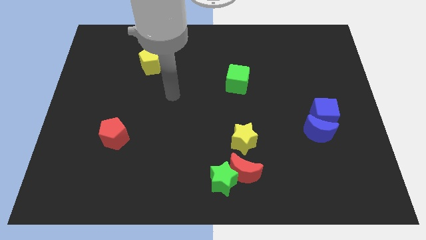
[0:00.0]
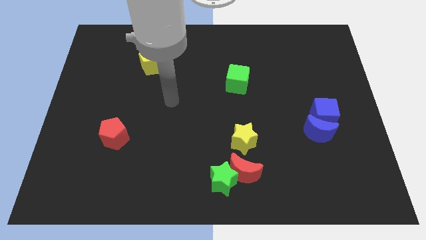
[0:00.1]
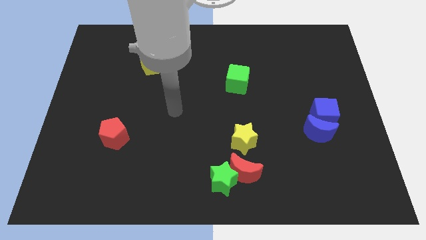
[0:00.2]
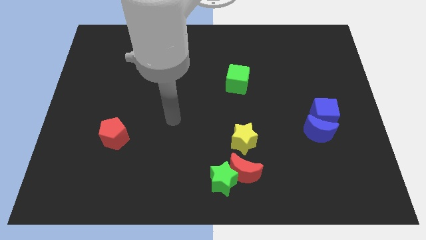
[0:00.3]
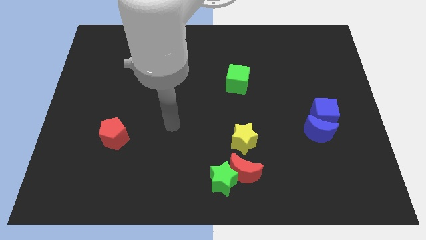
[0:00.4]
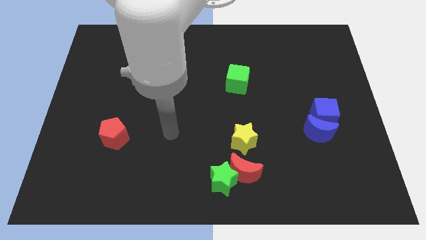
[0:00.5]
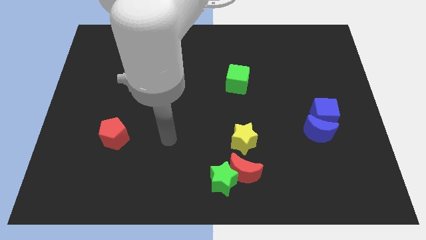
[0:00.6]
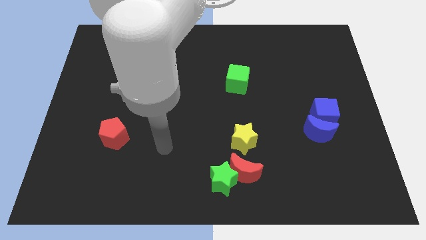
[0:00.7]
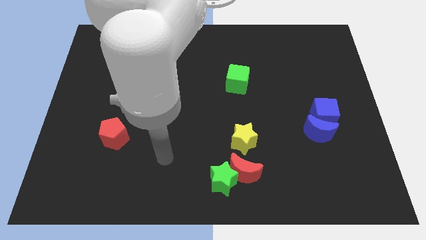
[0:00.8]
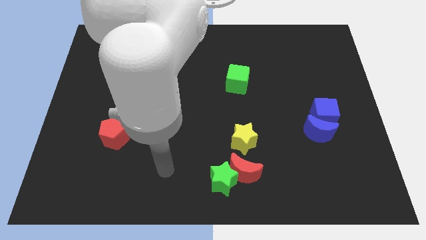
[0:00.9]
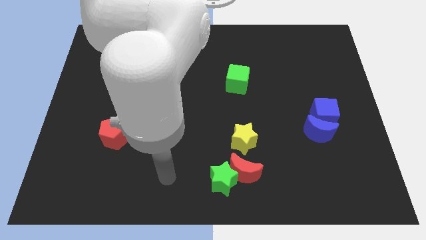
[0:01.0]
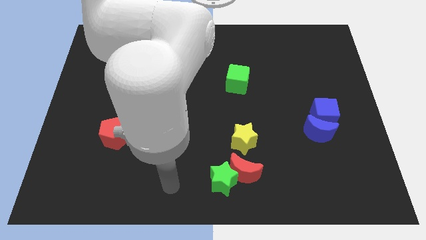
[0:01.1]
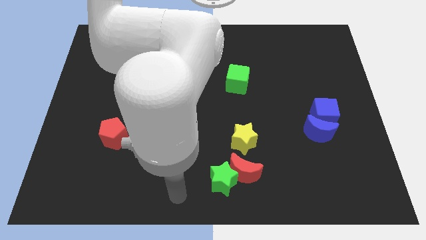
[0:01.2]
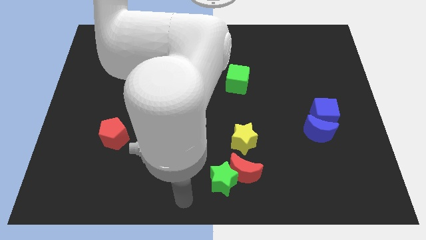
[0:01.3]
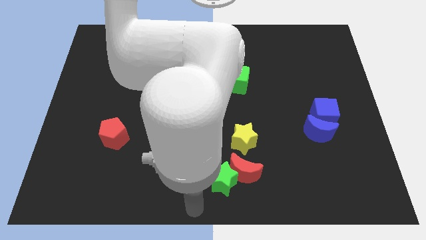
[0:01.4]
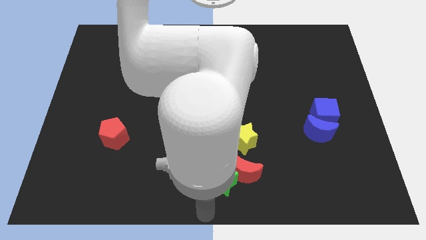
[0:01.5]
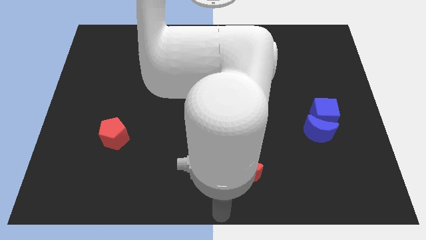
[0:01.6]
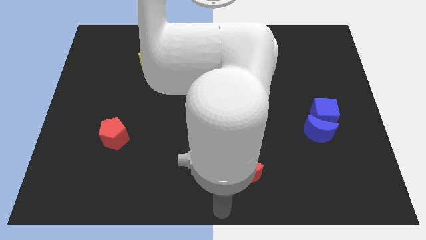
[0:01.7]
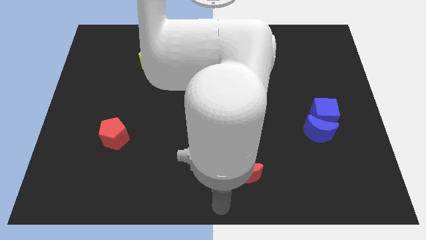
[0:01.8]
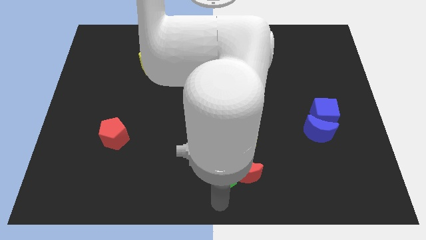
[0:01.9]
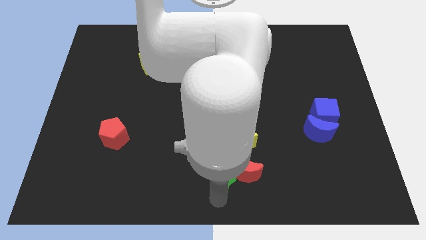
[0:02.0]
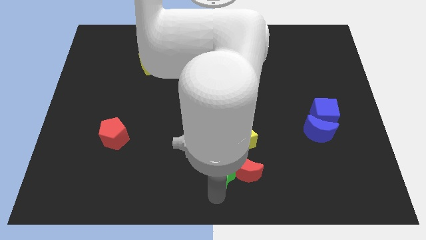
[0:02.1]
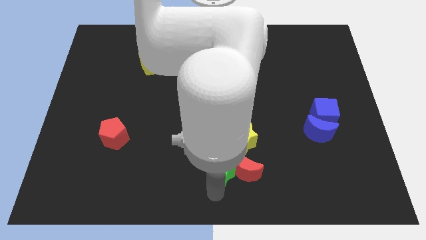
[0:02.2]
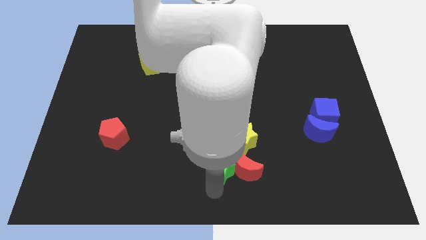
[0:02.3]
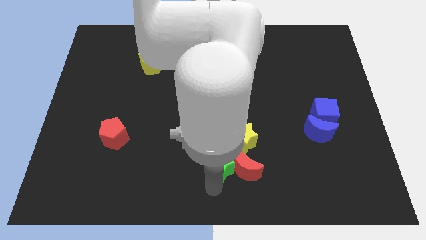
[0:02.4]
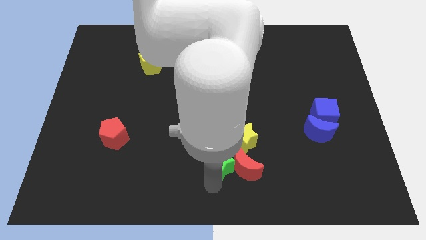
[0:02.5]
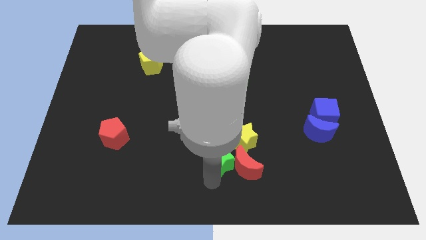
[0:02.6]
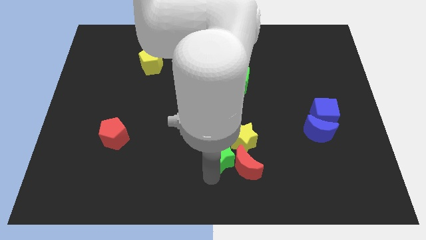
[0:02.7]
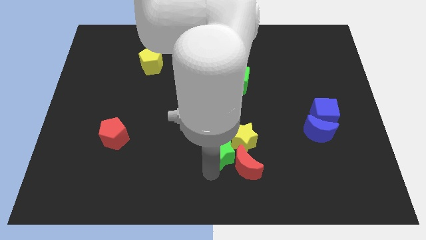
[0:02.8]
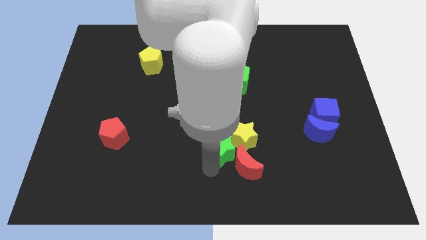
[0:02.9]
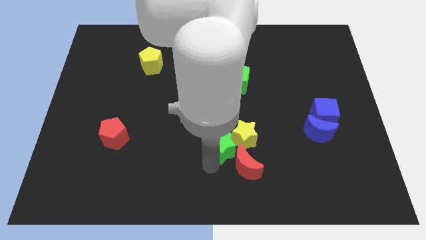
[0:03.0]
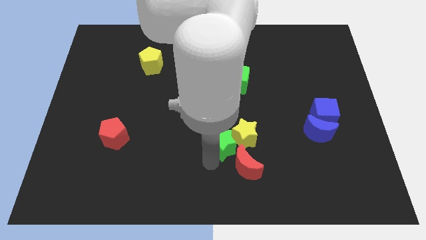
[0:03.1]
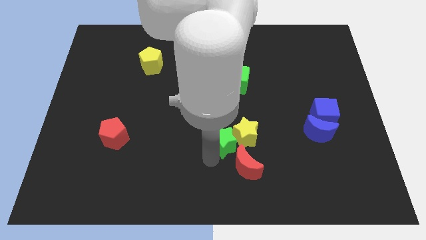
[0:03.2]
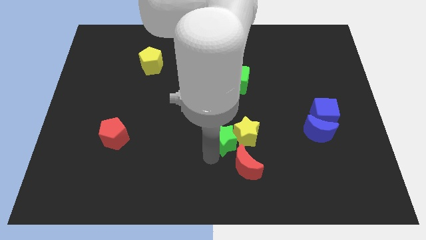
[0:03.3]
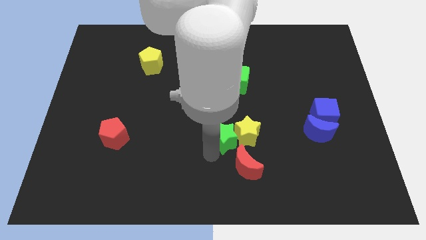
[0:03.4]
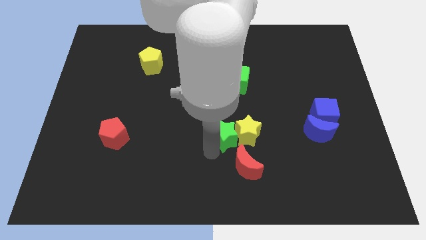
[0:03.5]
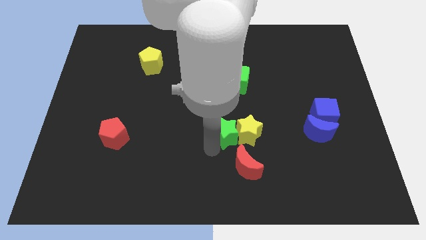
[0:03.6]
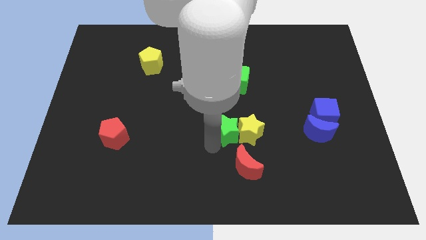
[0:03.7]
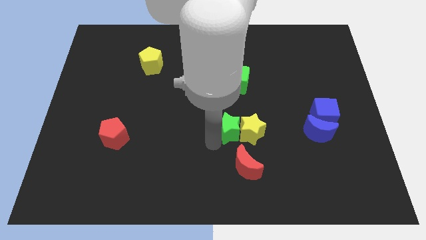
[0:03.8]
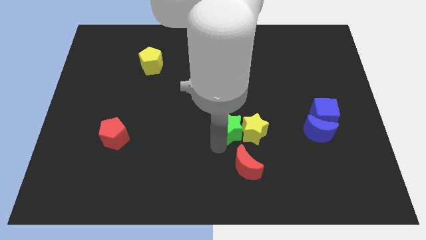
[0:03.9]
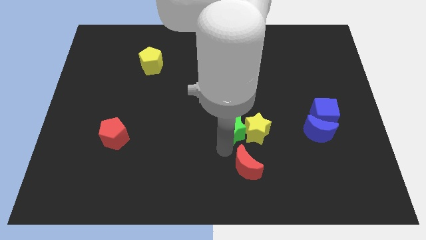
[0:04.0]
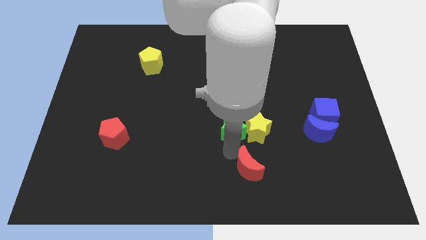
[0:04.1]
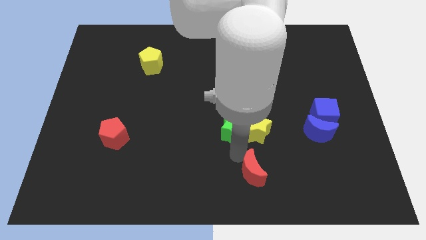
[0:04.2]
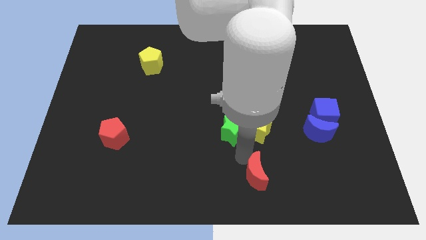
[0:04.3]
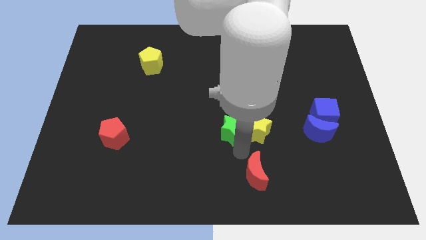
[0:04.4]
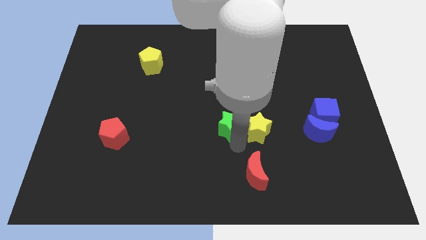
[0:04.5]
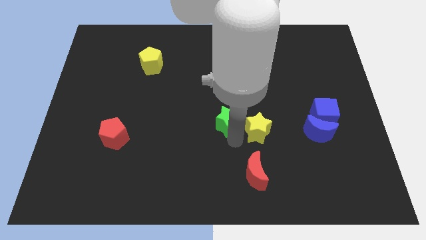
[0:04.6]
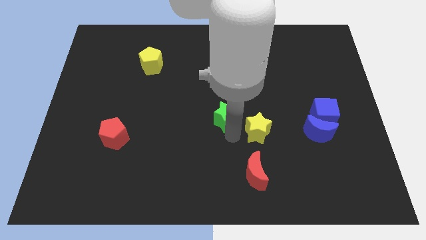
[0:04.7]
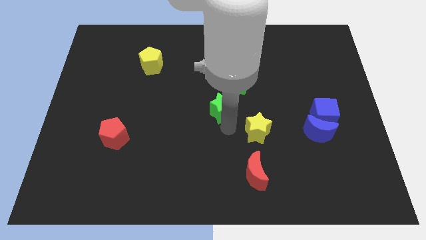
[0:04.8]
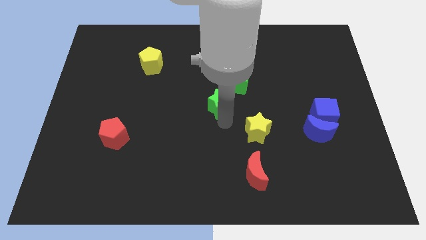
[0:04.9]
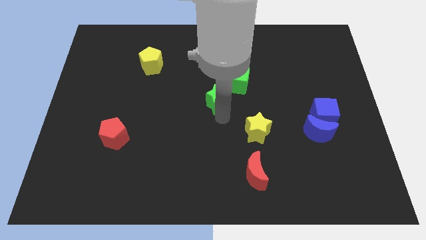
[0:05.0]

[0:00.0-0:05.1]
slide the green star upwards

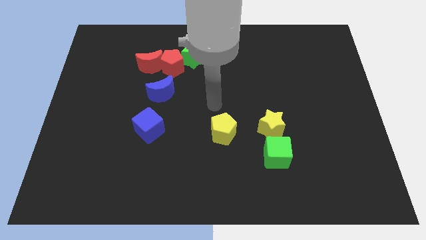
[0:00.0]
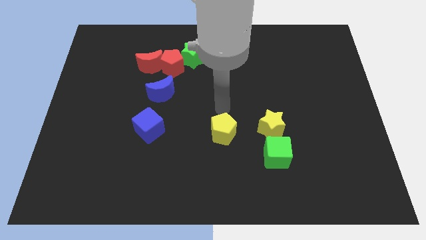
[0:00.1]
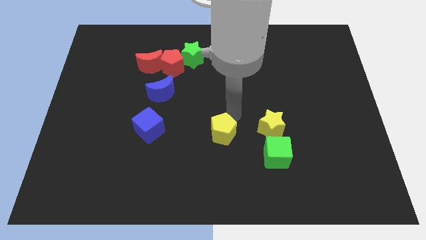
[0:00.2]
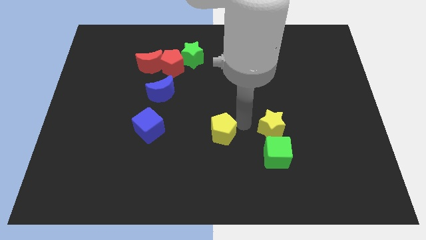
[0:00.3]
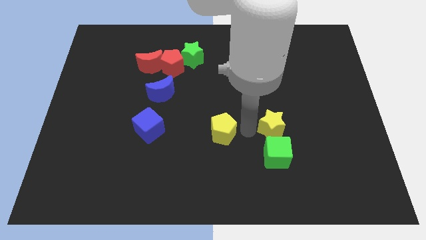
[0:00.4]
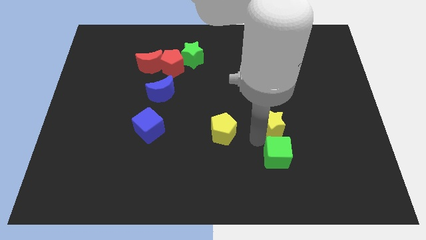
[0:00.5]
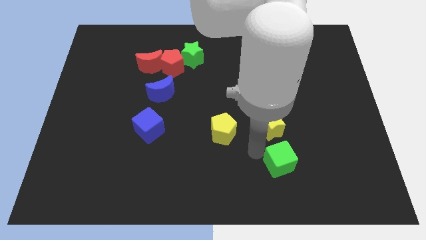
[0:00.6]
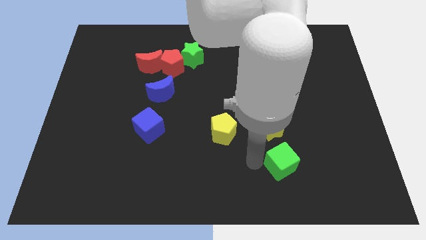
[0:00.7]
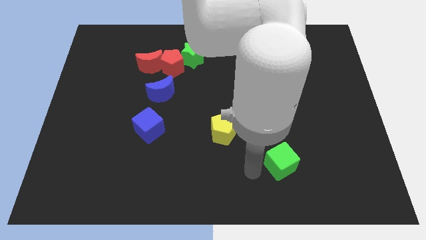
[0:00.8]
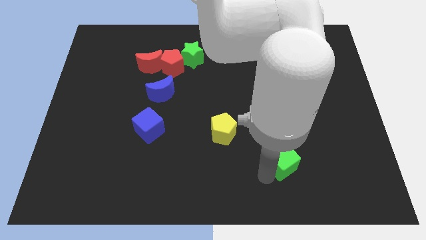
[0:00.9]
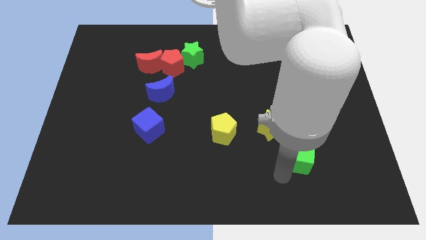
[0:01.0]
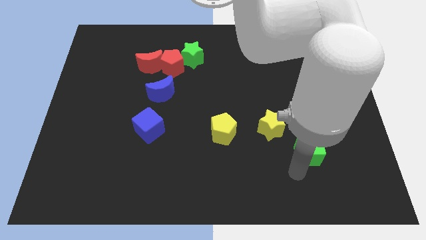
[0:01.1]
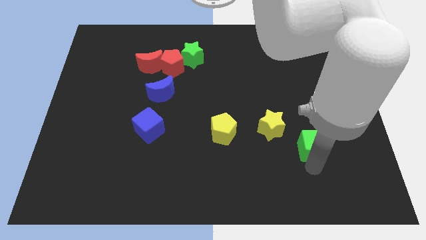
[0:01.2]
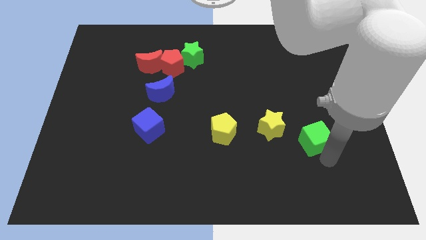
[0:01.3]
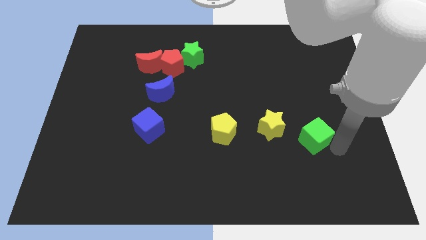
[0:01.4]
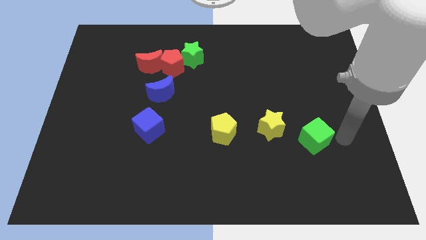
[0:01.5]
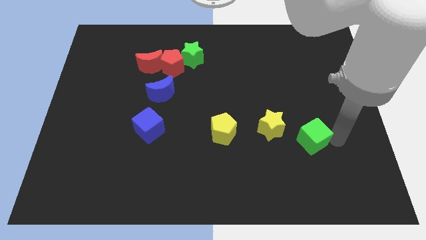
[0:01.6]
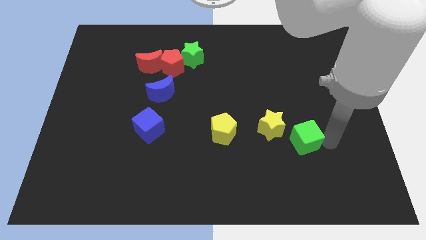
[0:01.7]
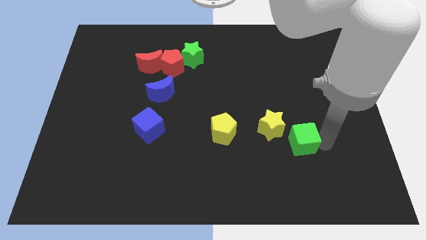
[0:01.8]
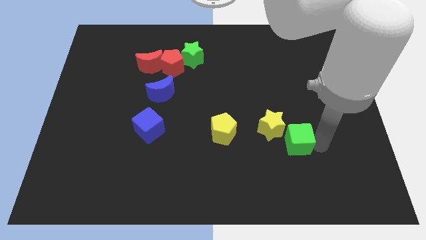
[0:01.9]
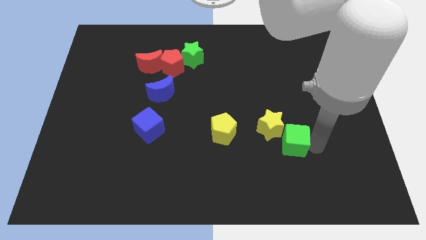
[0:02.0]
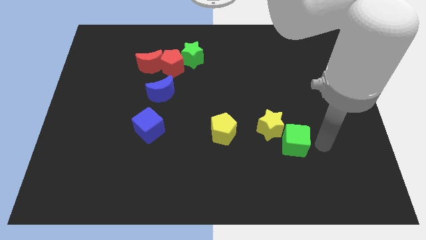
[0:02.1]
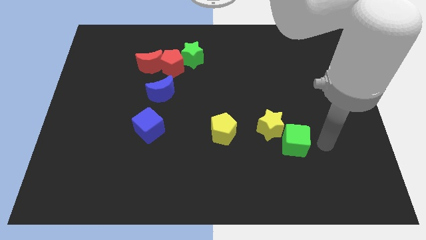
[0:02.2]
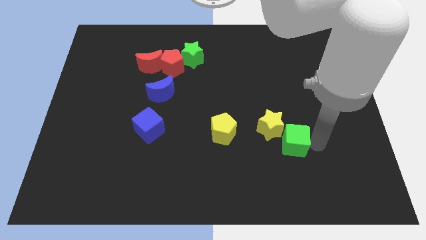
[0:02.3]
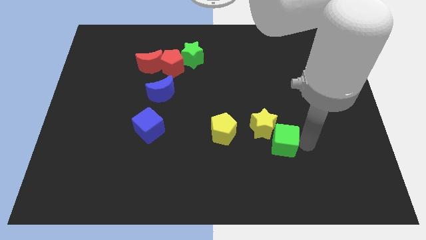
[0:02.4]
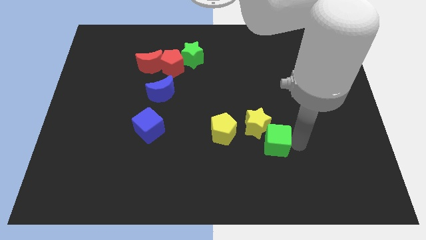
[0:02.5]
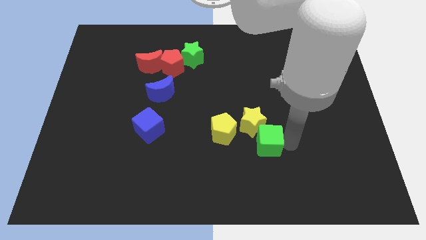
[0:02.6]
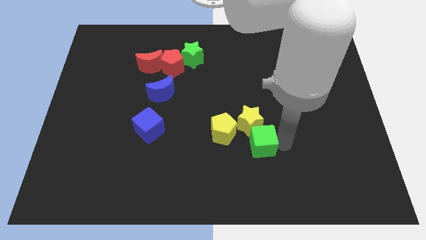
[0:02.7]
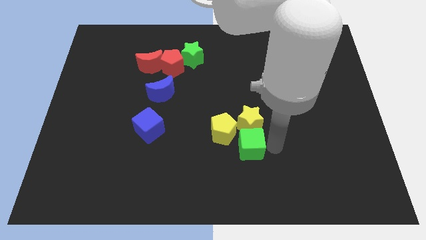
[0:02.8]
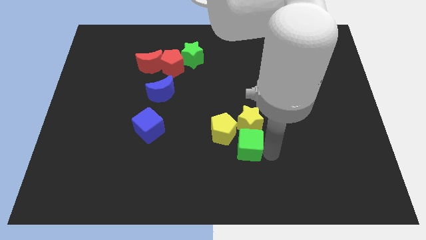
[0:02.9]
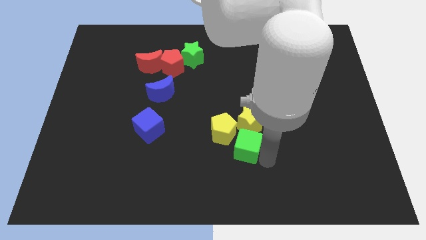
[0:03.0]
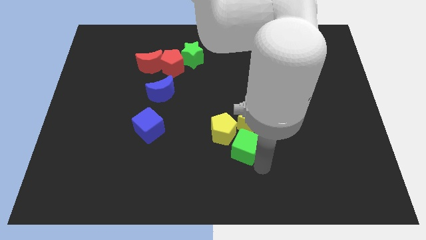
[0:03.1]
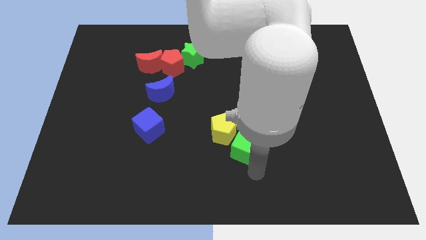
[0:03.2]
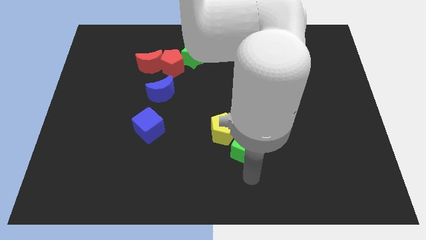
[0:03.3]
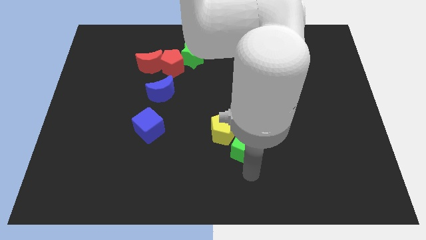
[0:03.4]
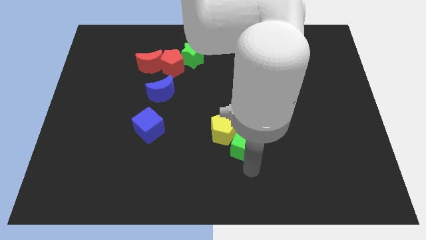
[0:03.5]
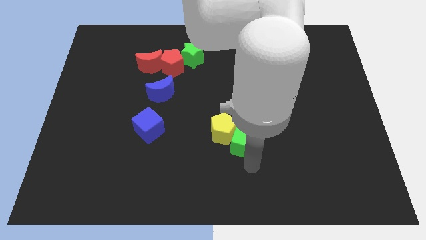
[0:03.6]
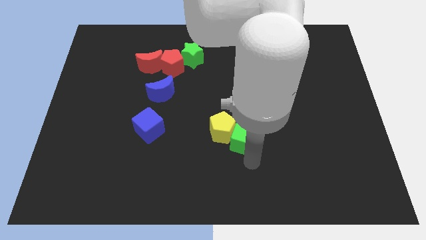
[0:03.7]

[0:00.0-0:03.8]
push the green cube slightly up and then left
